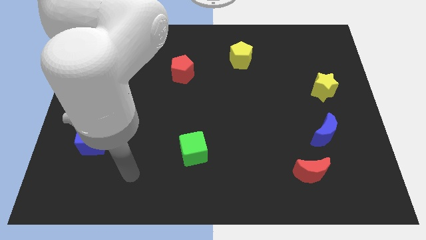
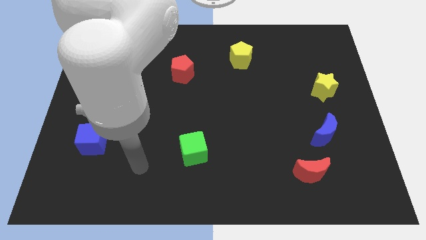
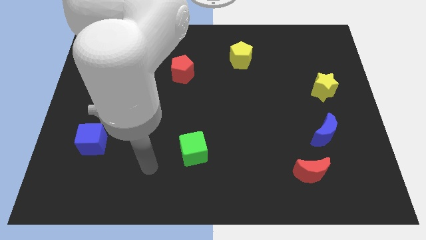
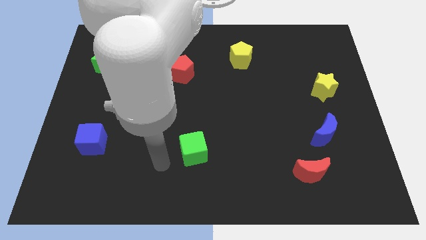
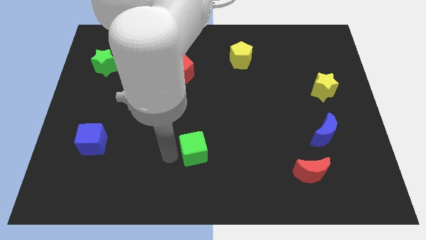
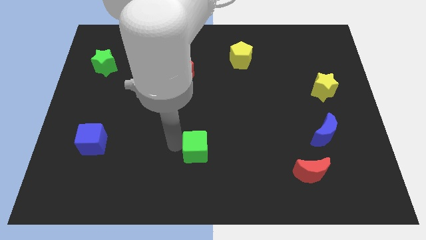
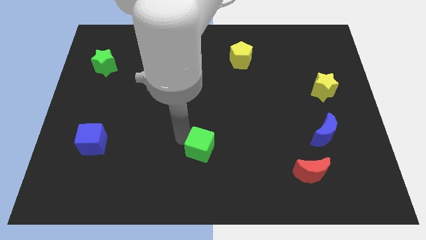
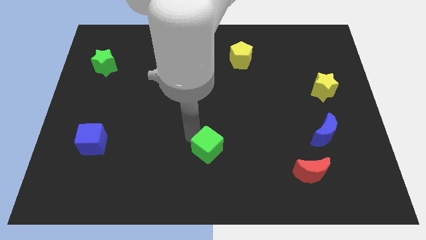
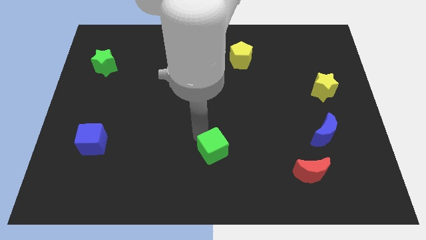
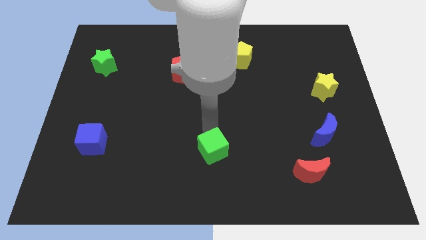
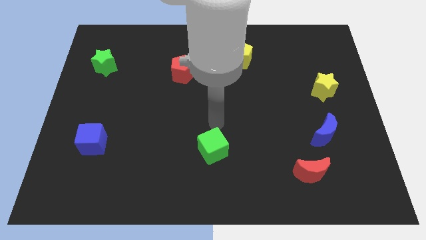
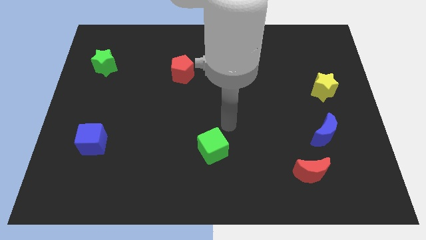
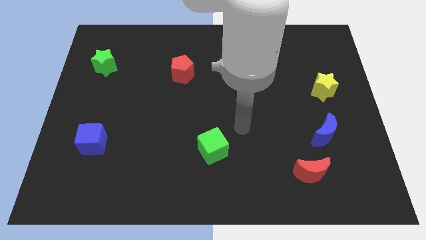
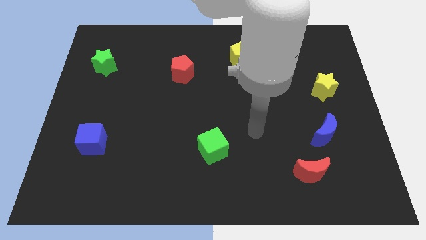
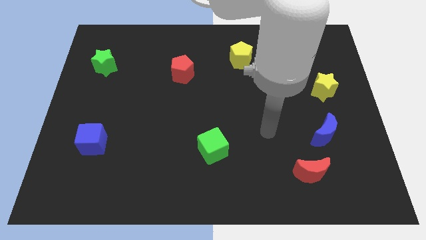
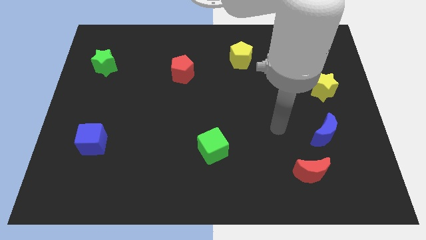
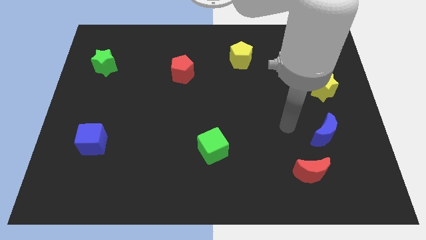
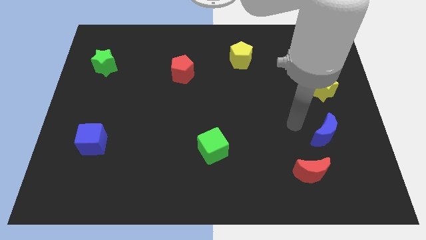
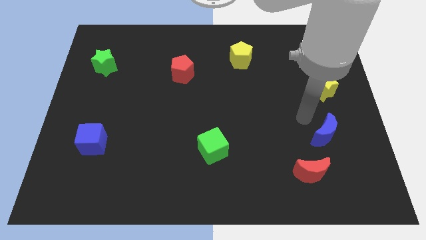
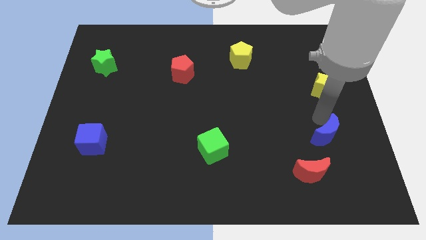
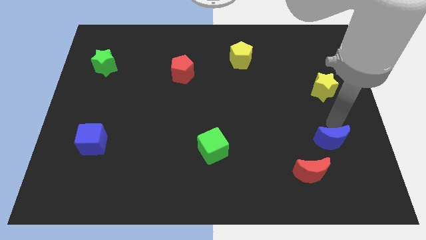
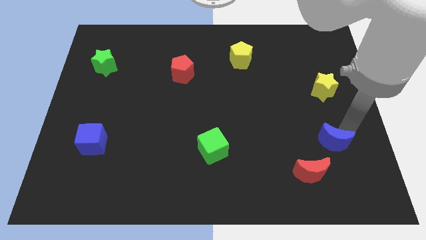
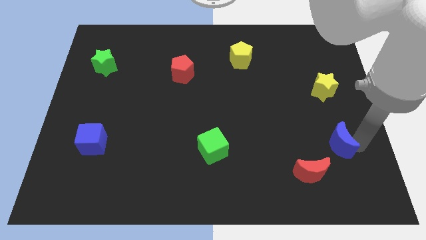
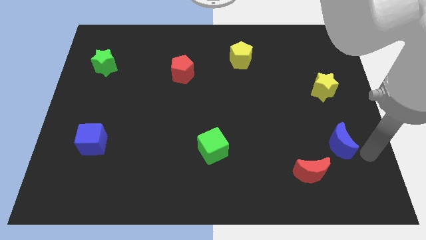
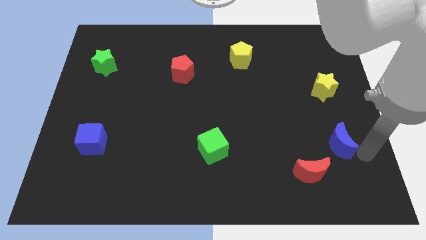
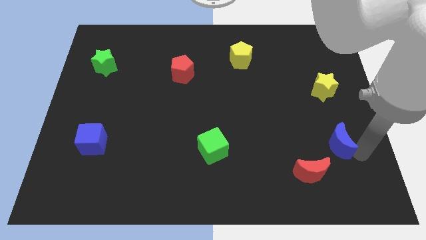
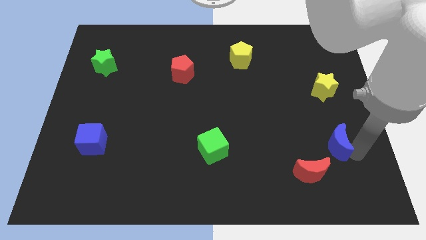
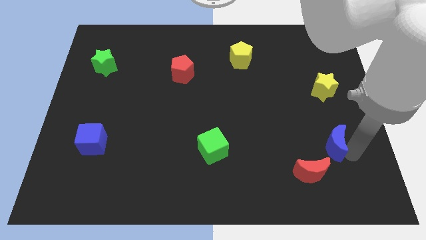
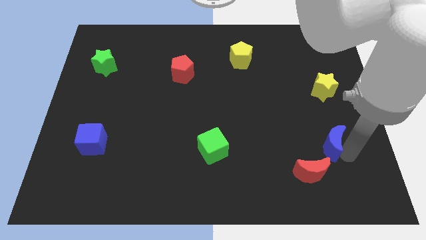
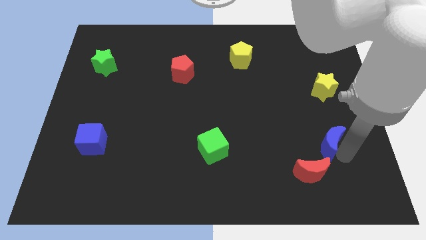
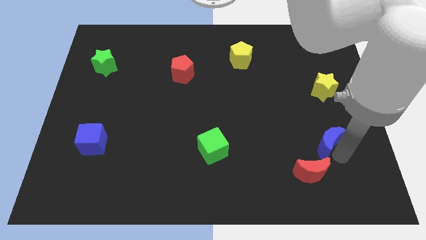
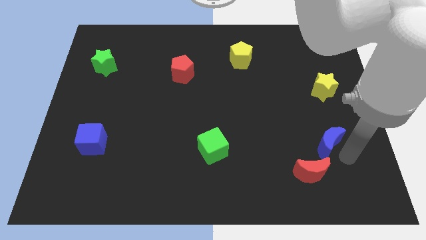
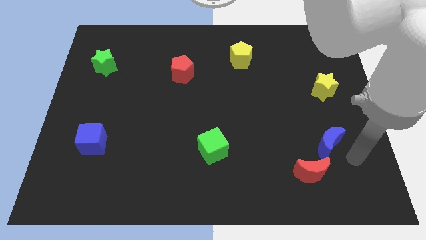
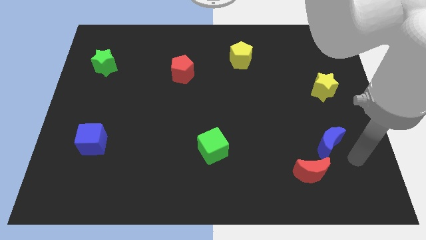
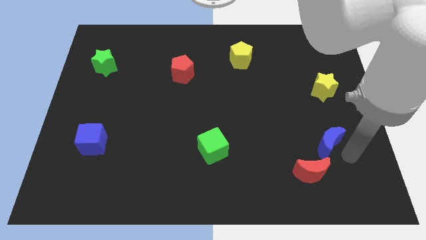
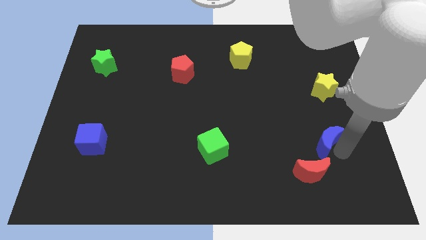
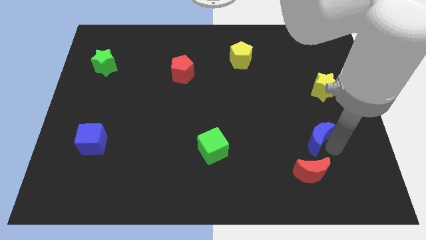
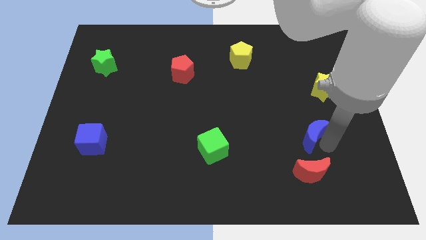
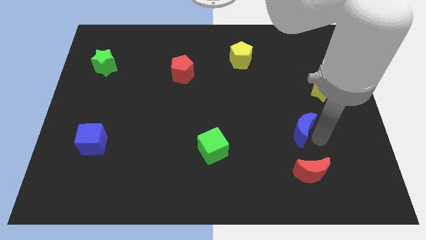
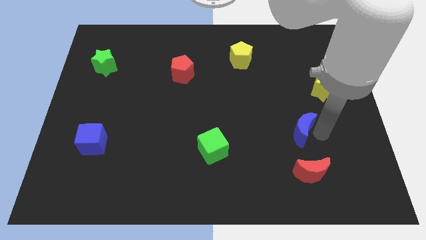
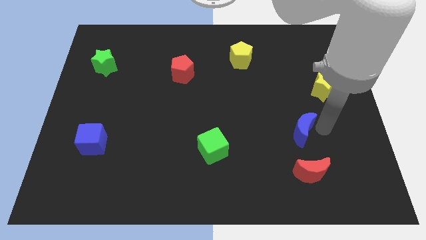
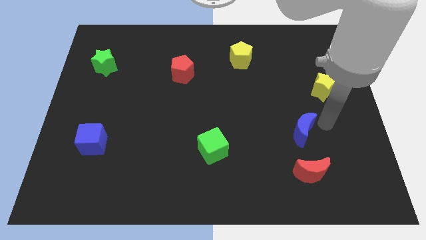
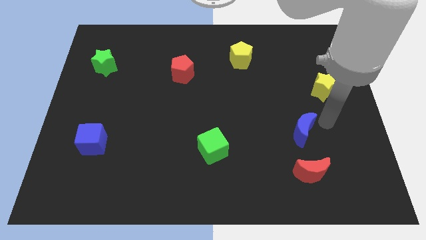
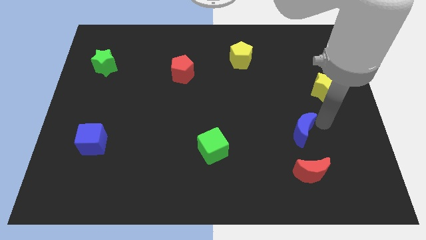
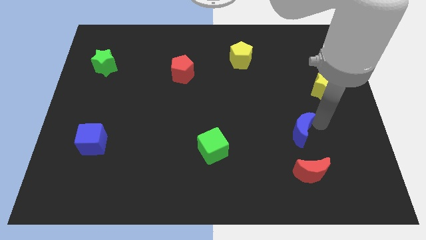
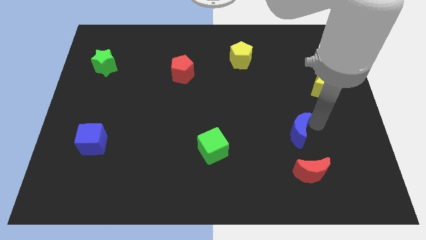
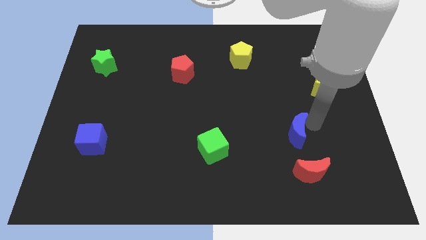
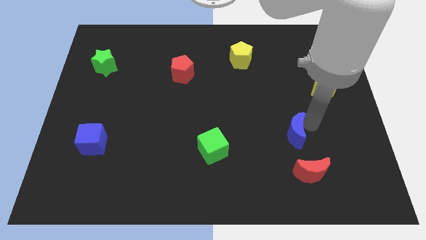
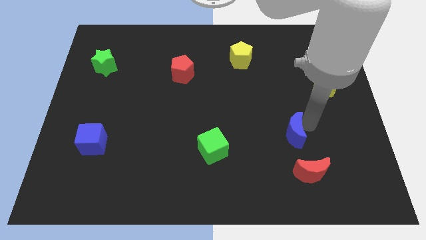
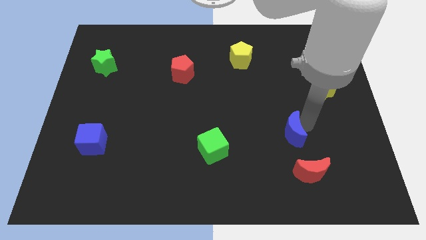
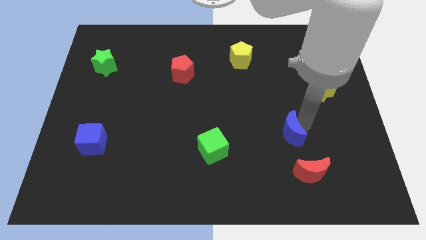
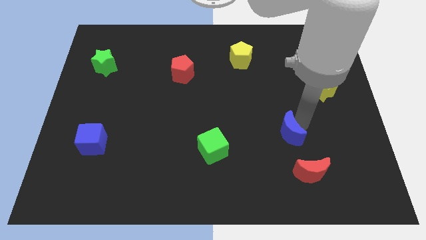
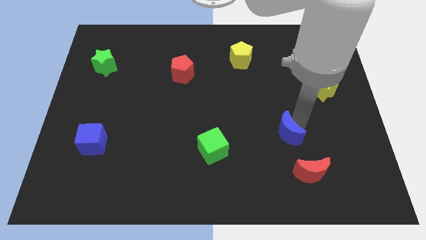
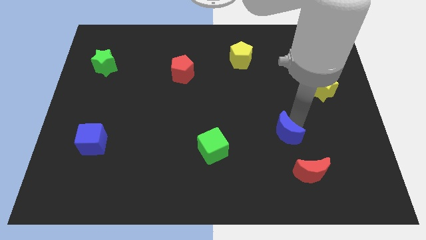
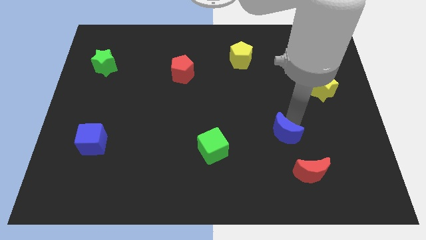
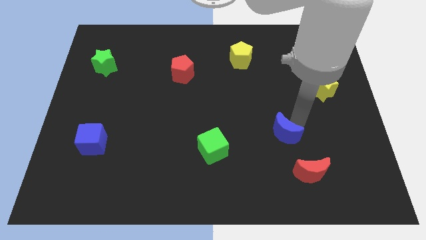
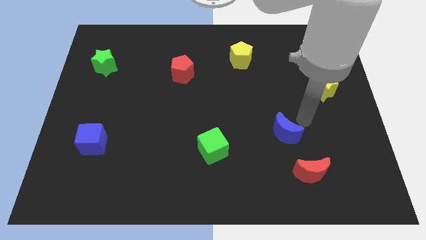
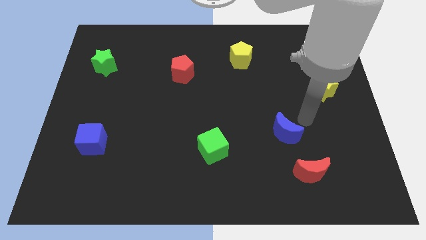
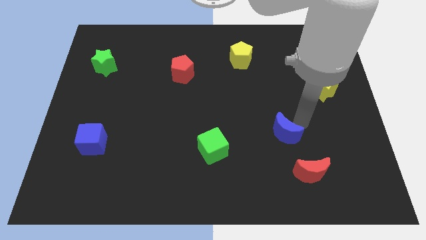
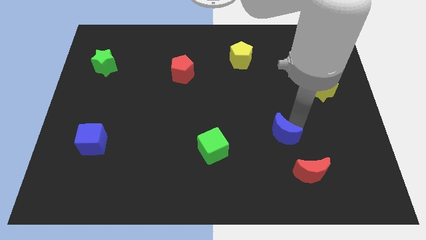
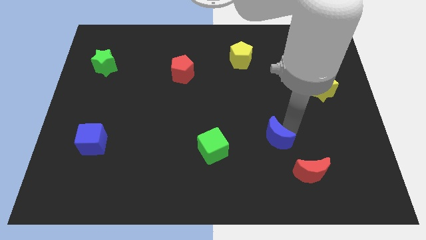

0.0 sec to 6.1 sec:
put the blue moon to the right of the green cube
